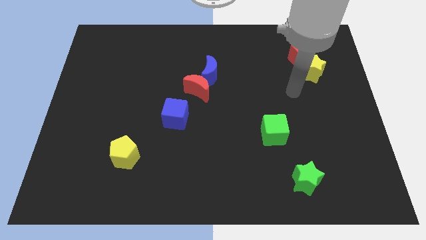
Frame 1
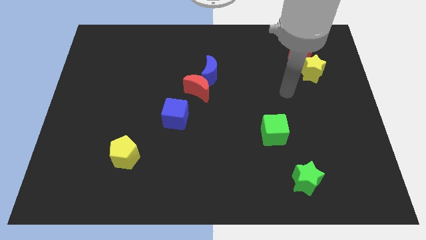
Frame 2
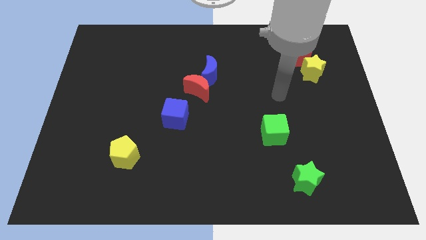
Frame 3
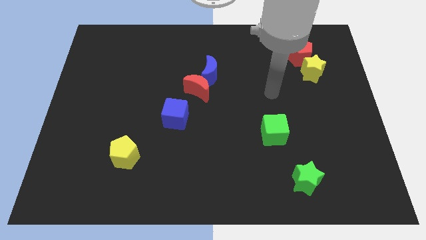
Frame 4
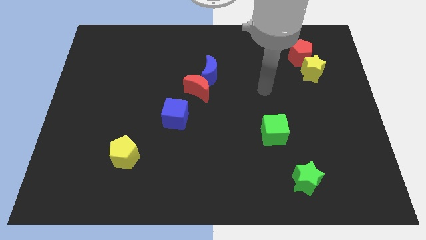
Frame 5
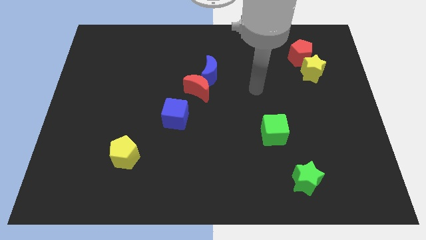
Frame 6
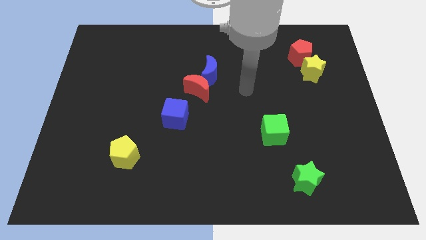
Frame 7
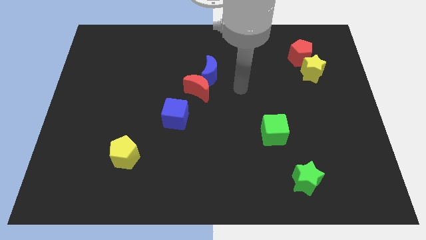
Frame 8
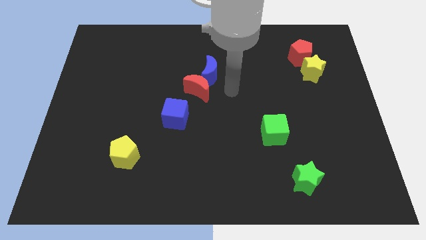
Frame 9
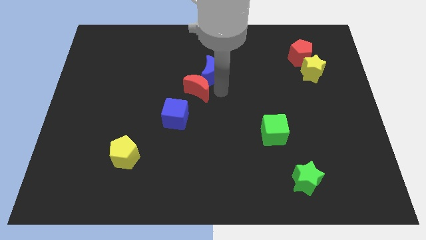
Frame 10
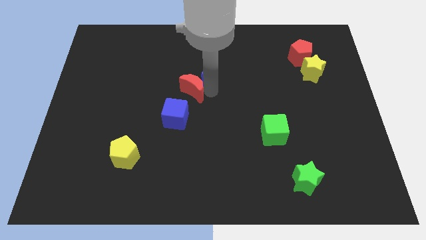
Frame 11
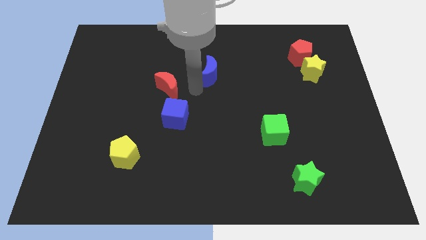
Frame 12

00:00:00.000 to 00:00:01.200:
move the blue moon away from the red moon

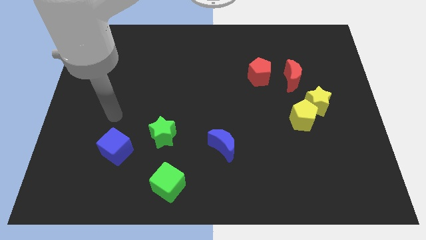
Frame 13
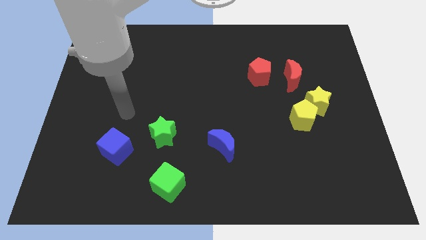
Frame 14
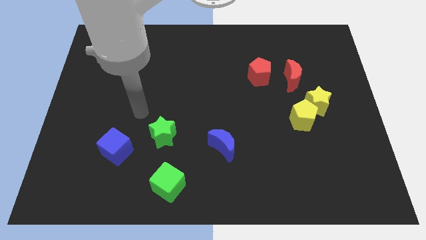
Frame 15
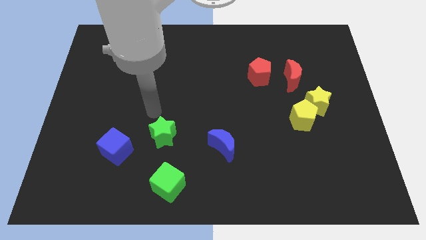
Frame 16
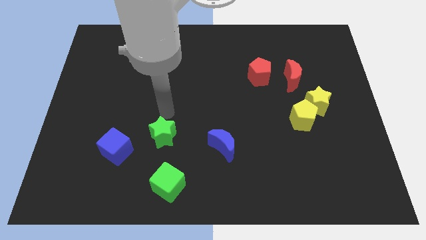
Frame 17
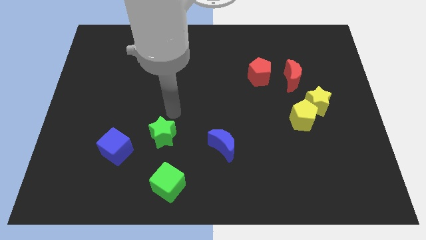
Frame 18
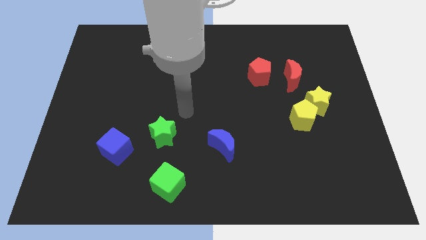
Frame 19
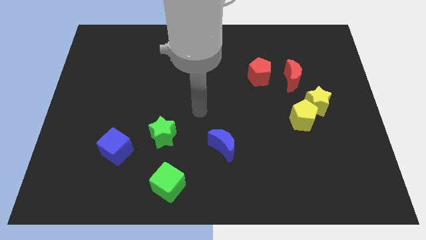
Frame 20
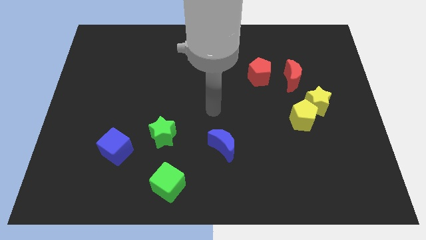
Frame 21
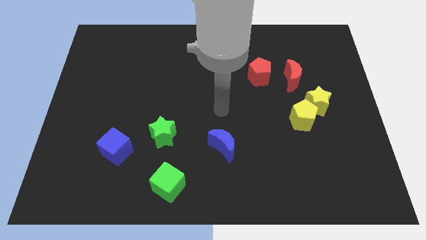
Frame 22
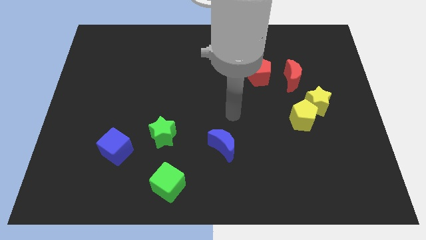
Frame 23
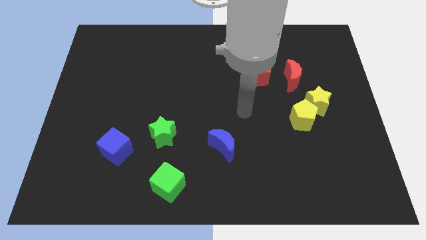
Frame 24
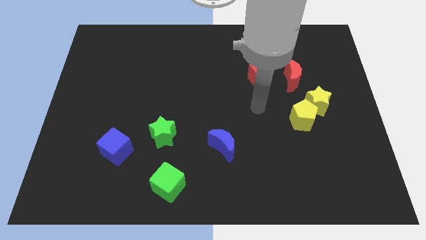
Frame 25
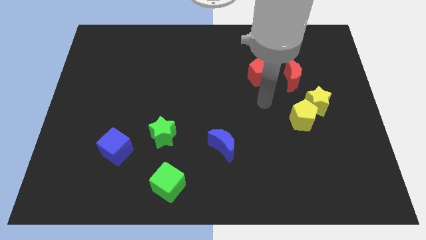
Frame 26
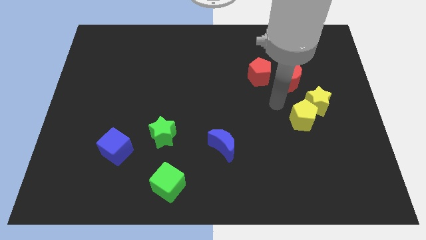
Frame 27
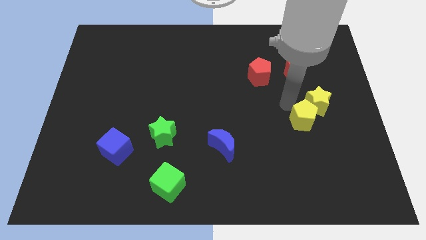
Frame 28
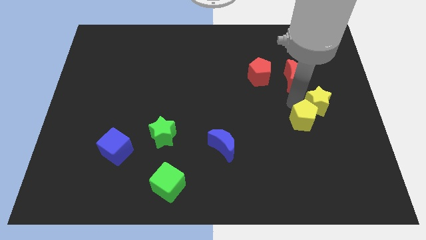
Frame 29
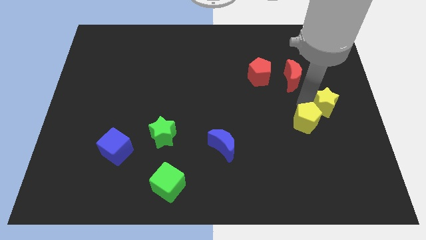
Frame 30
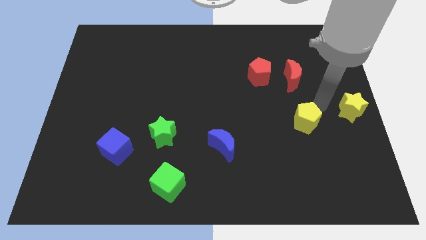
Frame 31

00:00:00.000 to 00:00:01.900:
move the yellow pentagon away from the yellow star

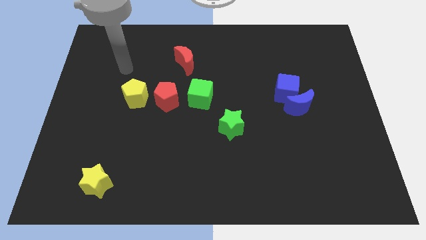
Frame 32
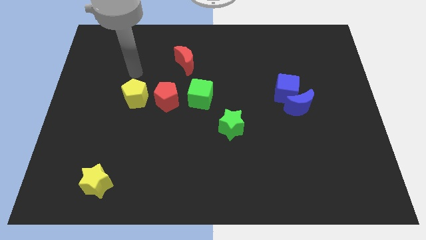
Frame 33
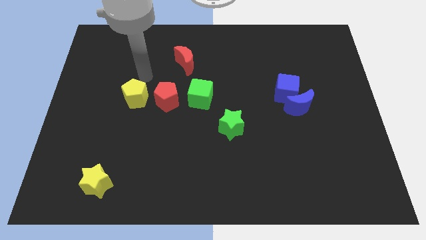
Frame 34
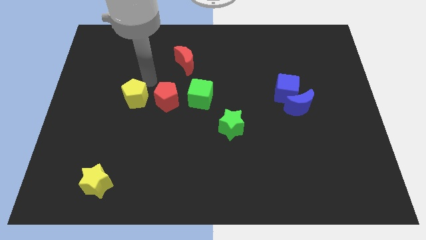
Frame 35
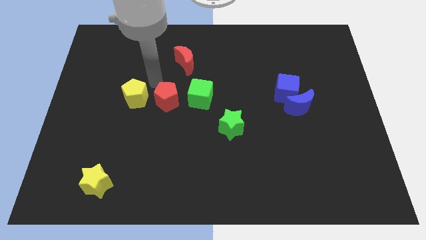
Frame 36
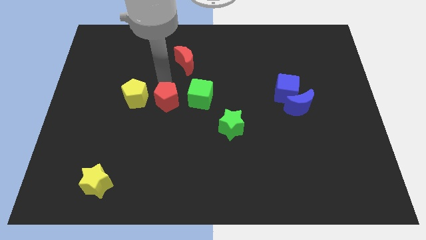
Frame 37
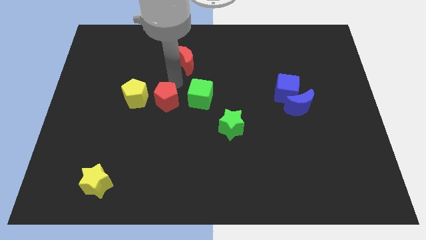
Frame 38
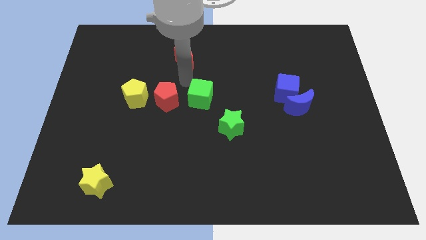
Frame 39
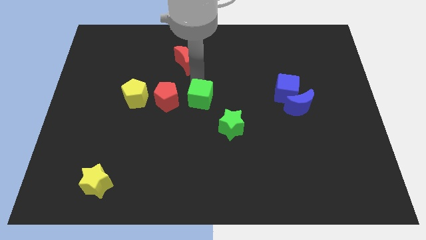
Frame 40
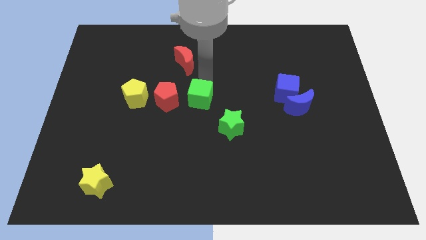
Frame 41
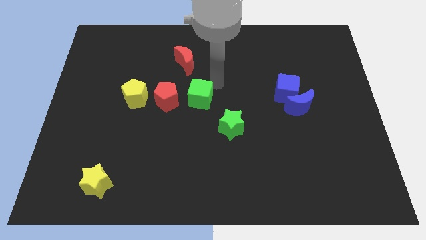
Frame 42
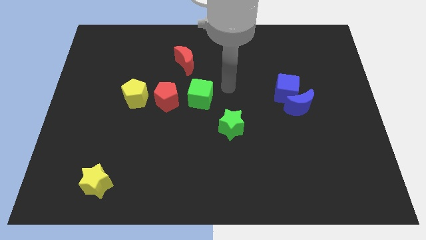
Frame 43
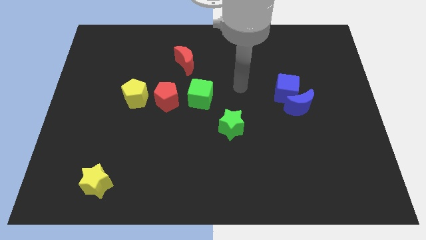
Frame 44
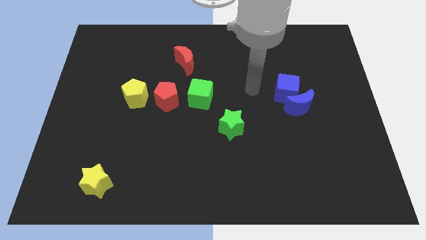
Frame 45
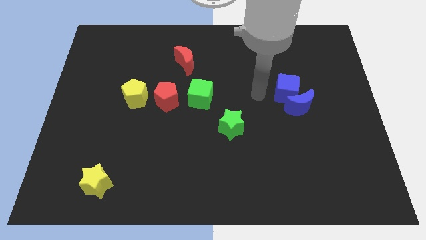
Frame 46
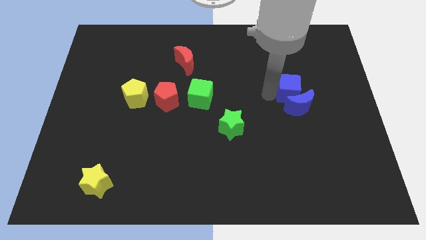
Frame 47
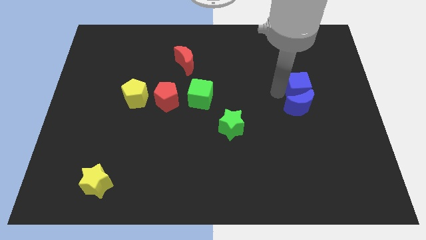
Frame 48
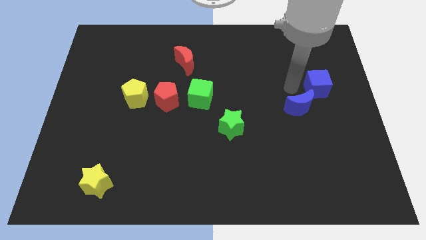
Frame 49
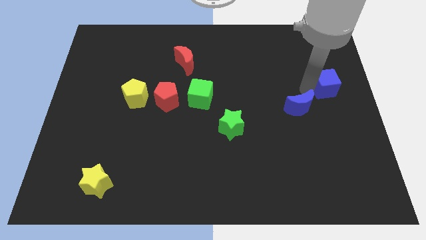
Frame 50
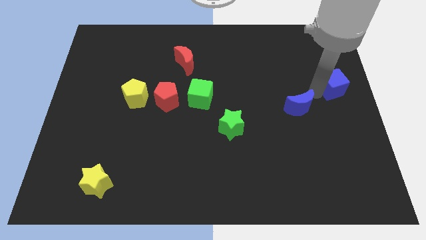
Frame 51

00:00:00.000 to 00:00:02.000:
separate the blue moon from the blue cube

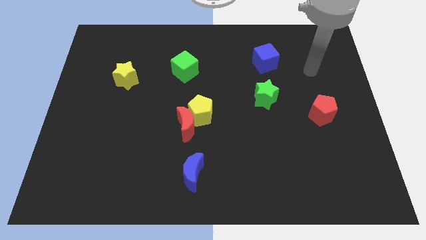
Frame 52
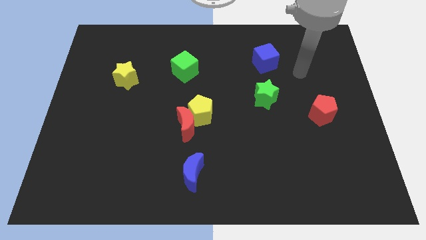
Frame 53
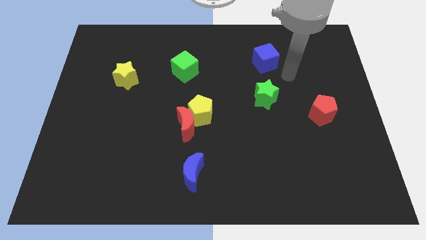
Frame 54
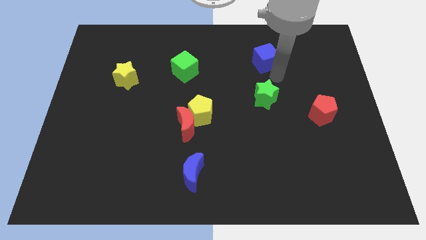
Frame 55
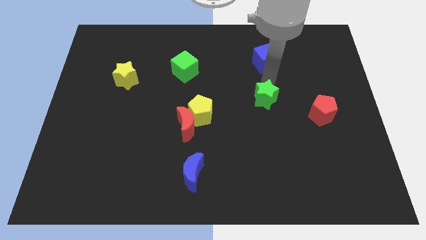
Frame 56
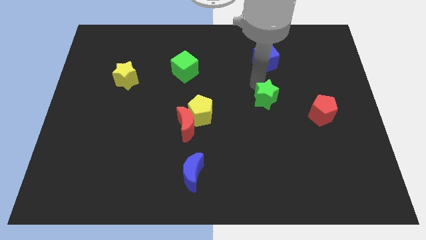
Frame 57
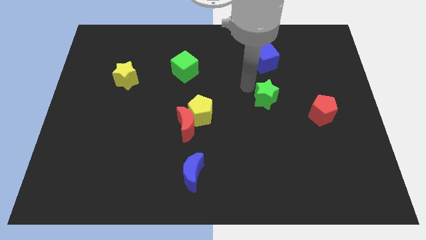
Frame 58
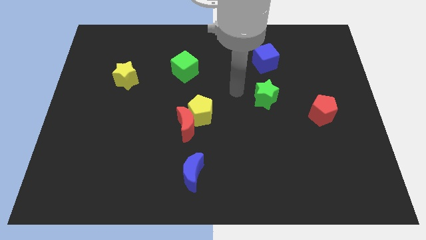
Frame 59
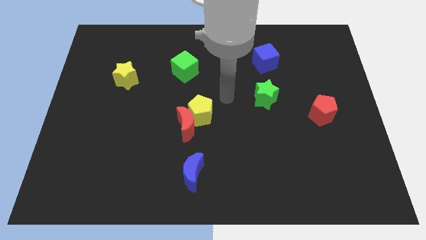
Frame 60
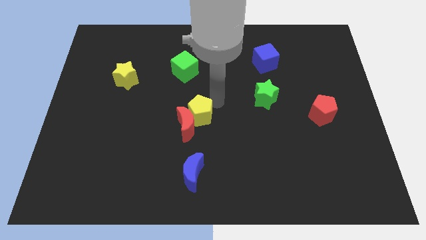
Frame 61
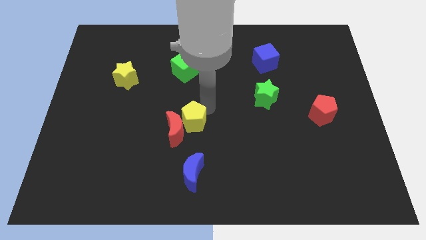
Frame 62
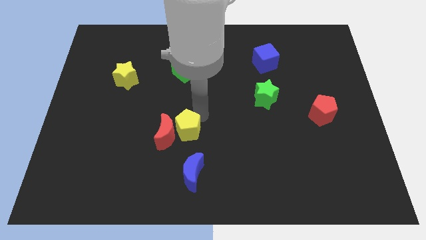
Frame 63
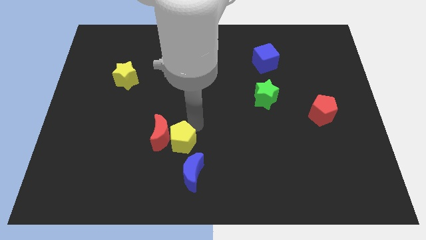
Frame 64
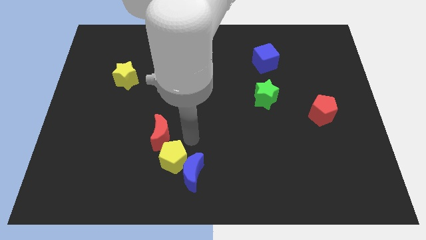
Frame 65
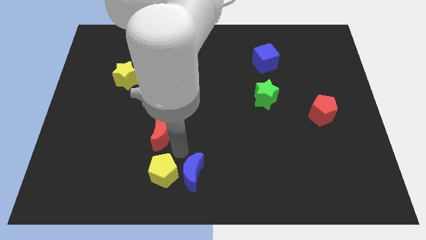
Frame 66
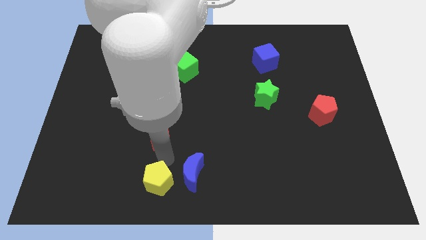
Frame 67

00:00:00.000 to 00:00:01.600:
move the red moon away from the yellow pentagon

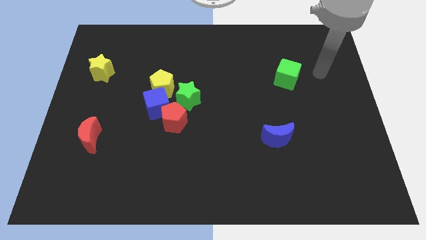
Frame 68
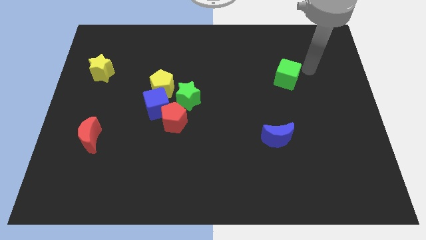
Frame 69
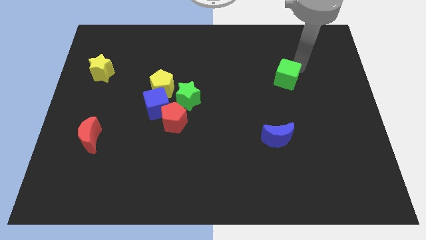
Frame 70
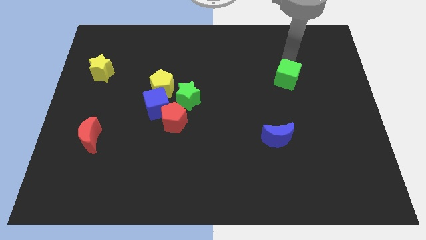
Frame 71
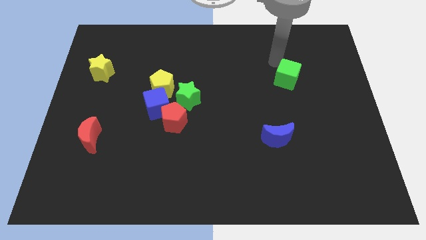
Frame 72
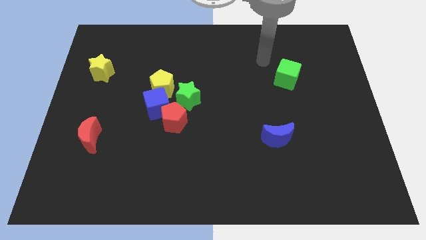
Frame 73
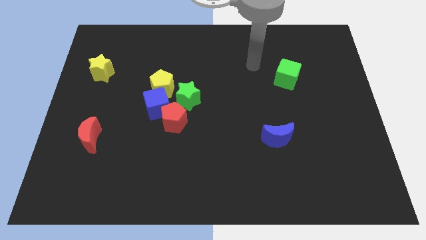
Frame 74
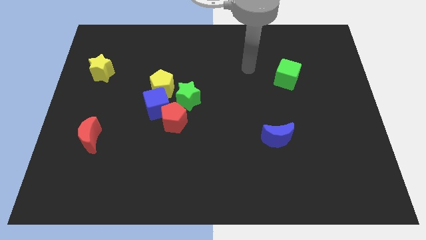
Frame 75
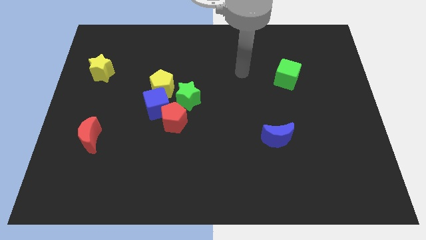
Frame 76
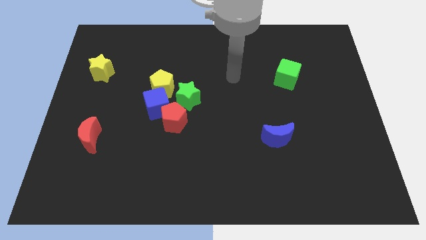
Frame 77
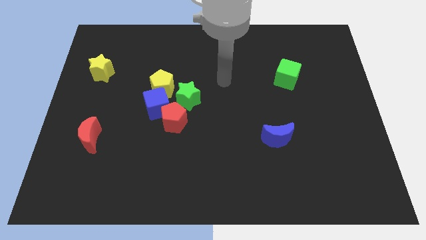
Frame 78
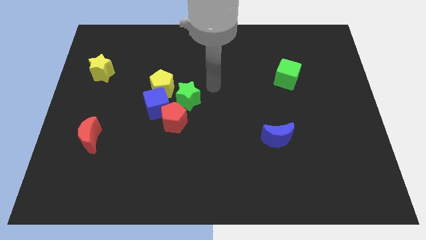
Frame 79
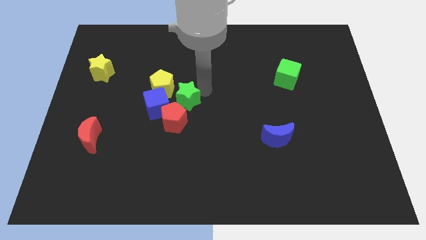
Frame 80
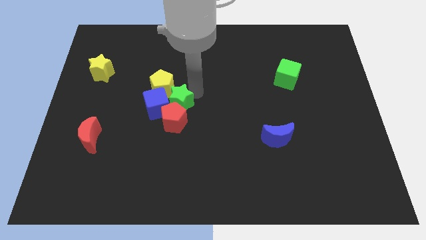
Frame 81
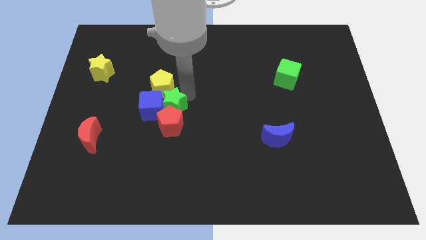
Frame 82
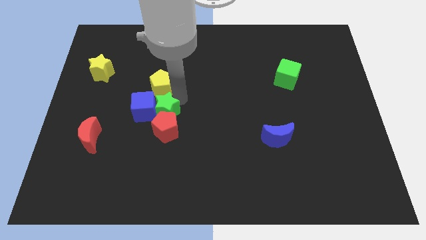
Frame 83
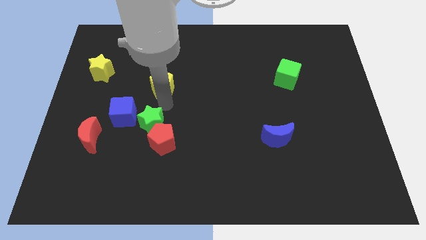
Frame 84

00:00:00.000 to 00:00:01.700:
pull the yellow pentagon apart from the blue cube and green star

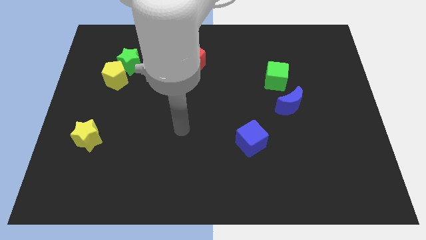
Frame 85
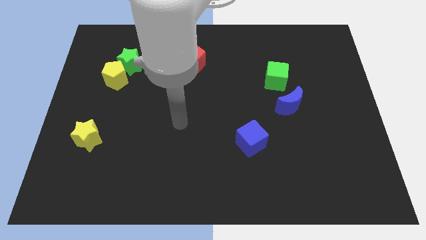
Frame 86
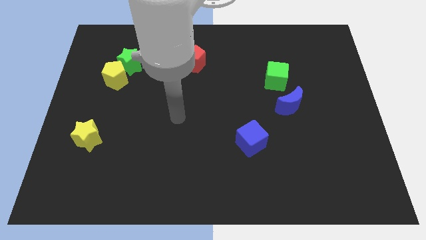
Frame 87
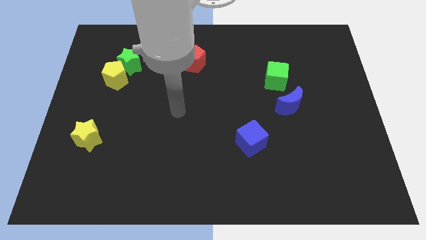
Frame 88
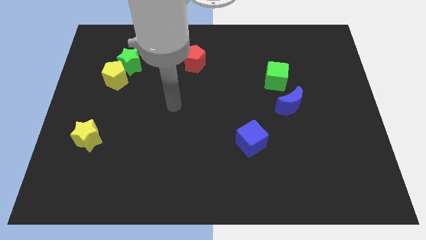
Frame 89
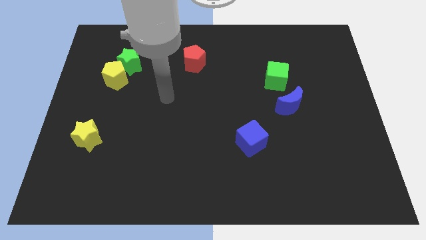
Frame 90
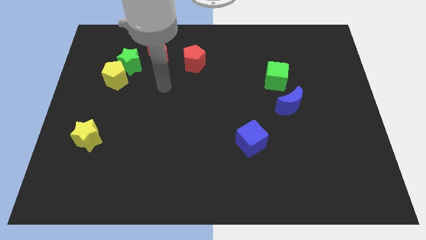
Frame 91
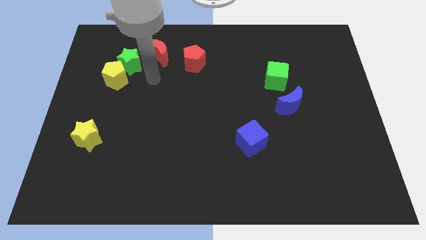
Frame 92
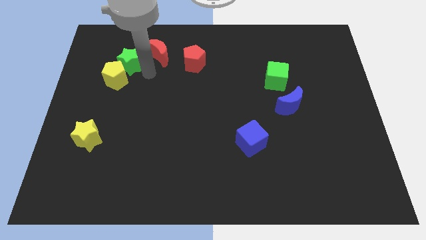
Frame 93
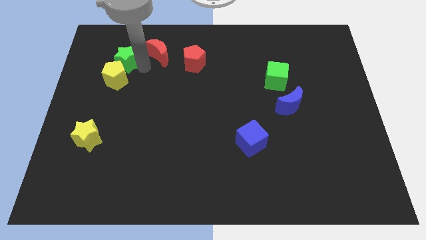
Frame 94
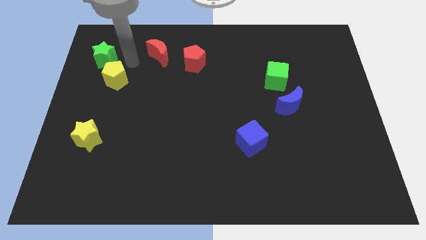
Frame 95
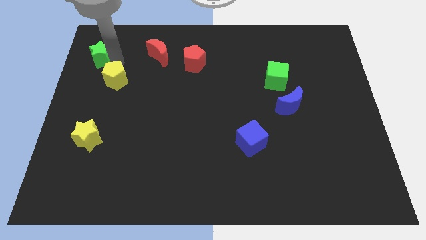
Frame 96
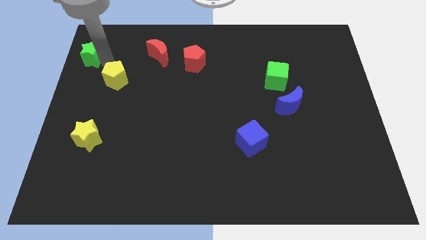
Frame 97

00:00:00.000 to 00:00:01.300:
separate the yellow pentagon from the green star
